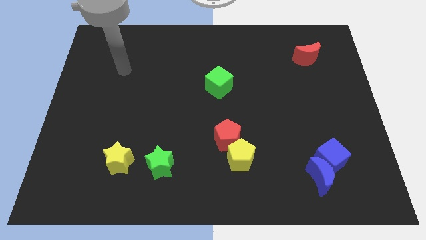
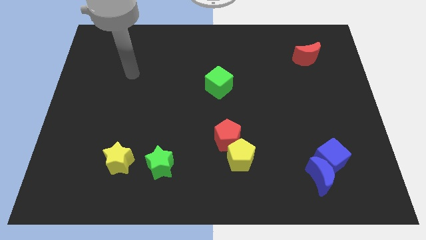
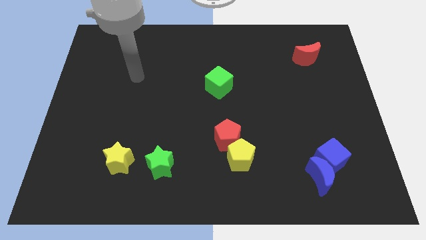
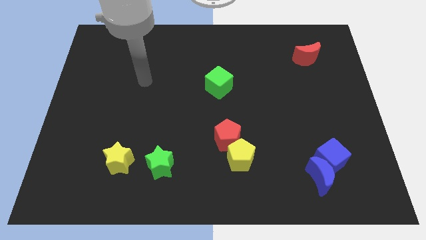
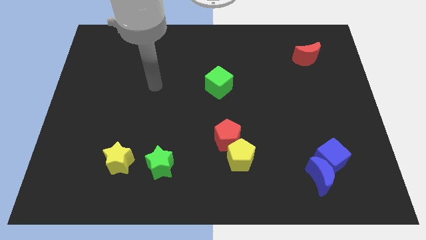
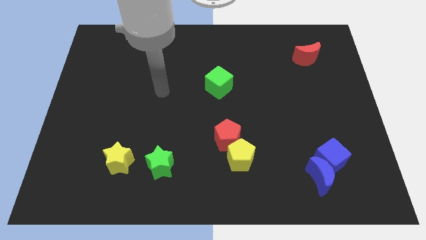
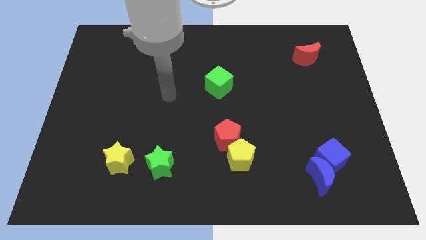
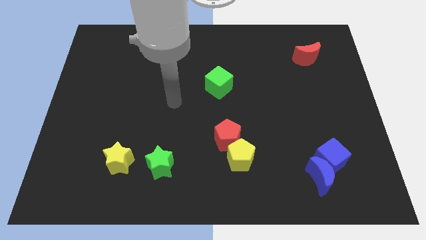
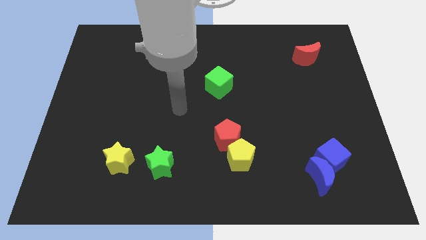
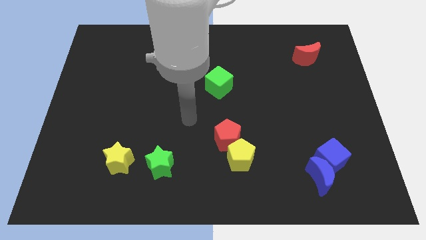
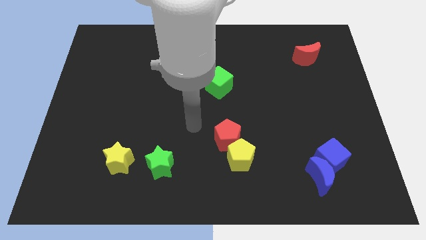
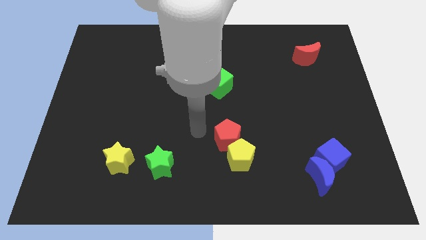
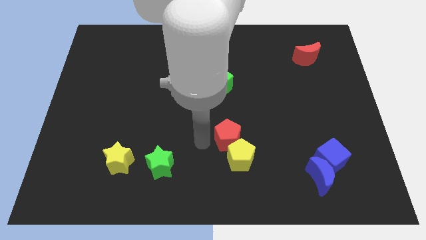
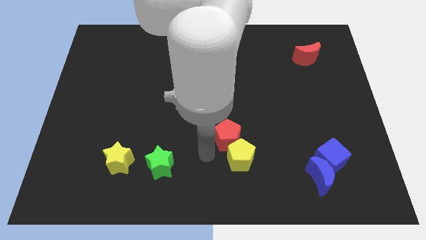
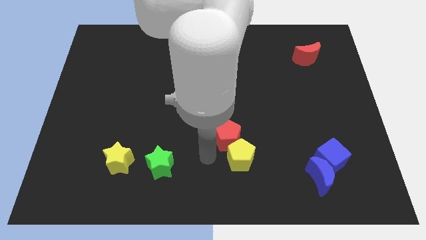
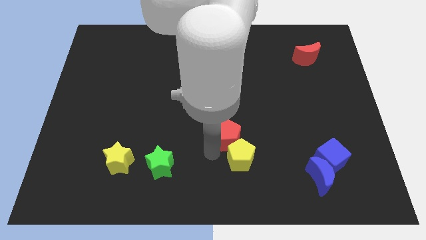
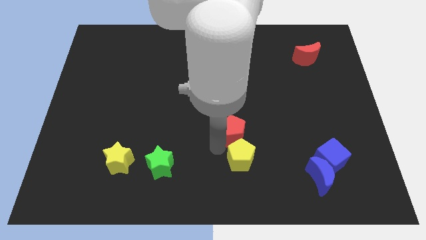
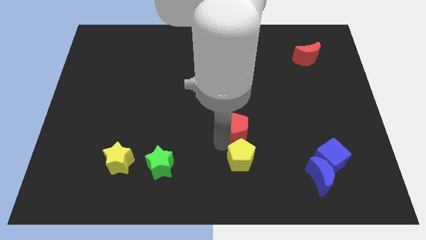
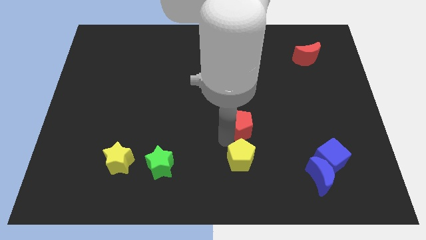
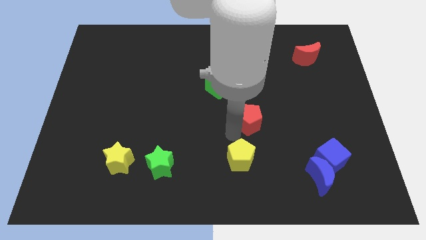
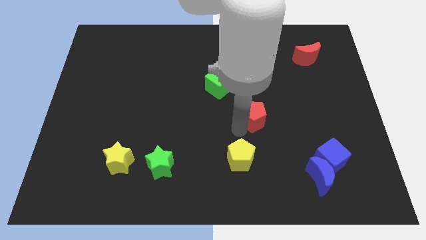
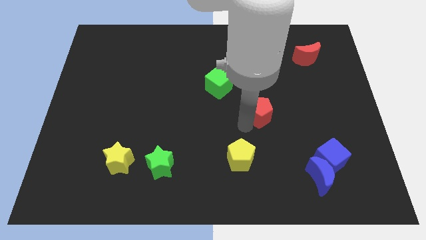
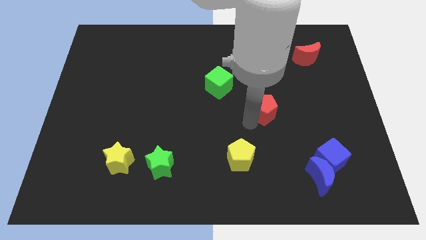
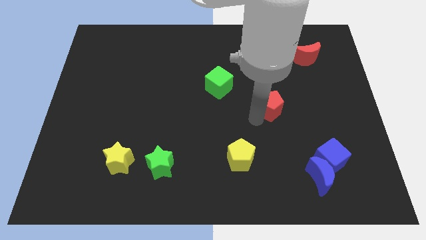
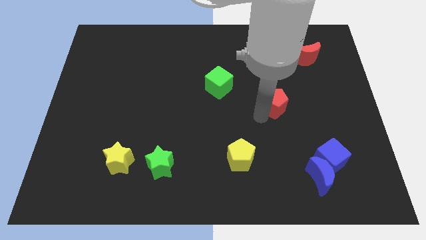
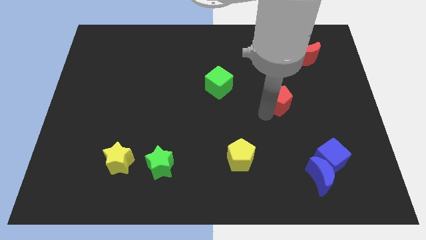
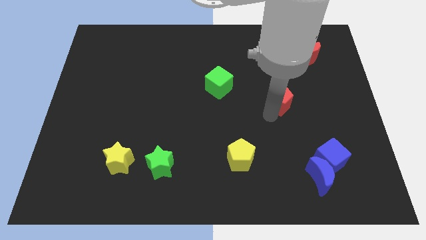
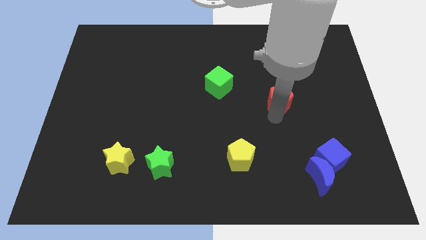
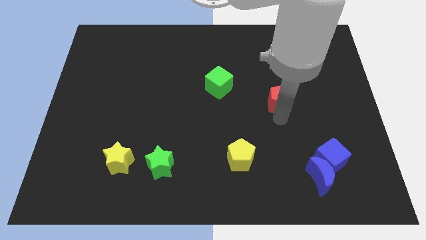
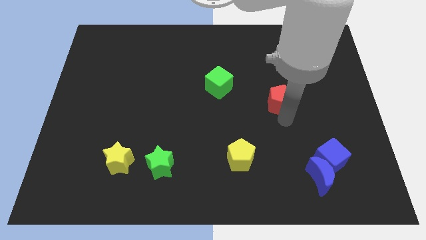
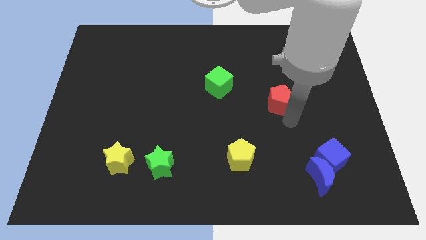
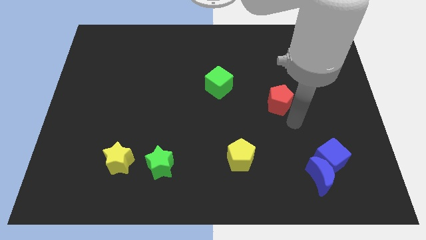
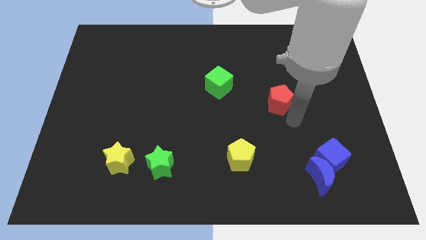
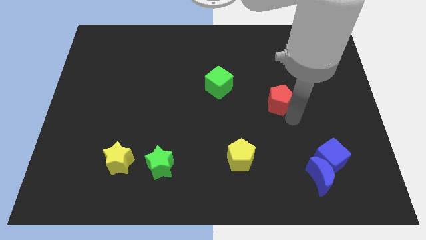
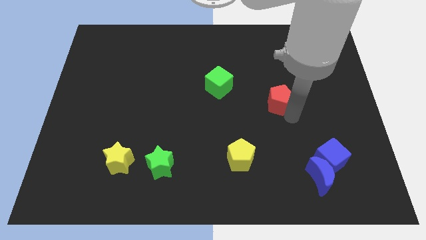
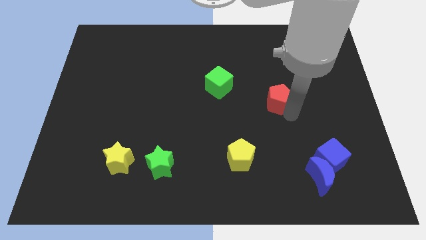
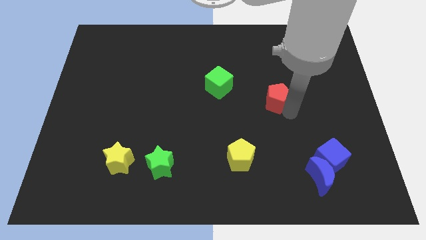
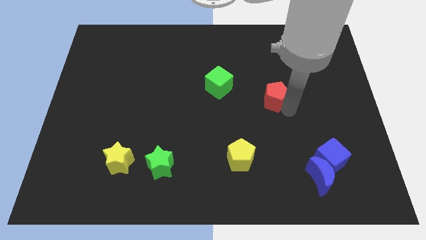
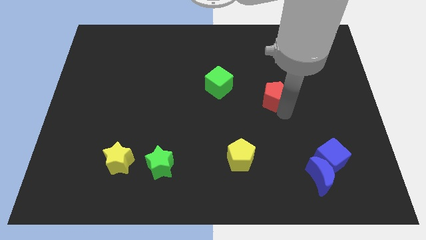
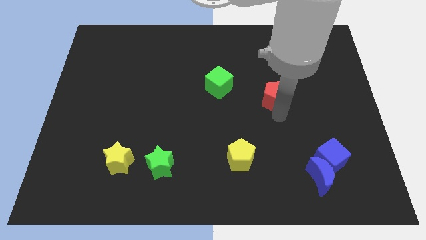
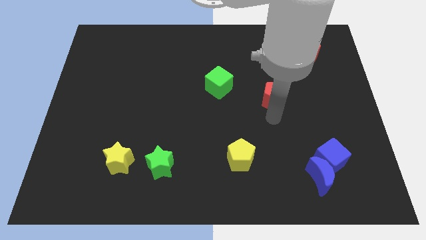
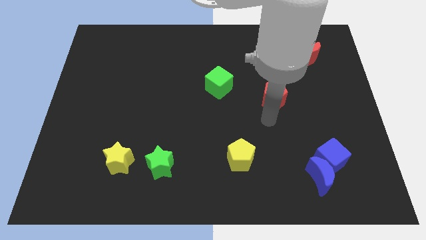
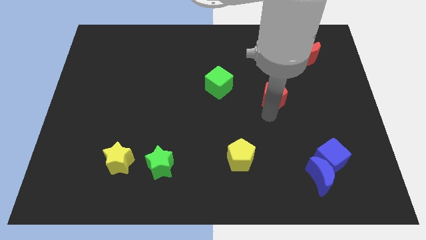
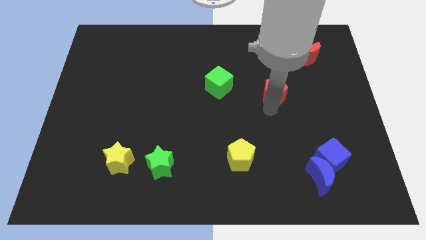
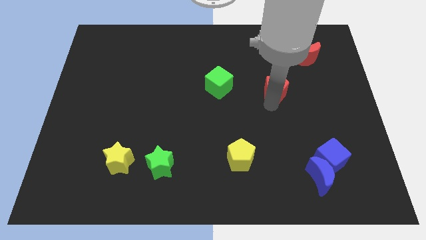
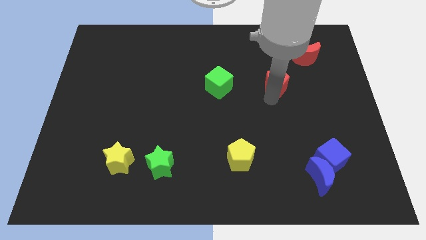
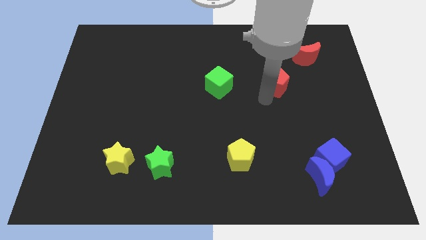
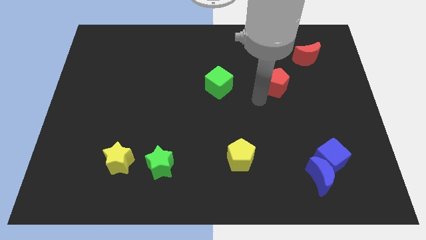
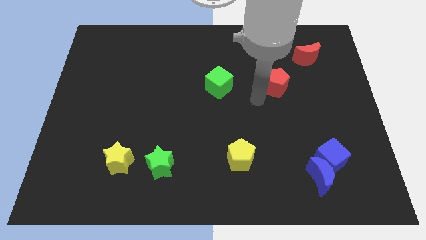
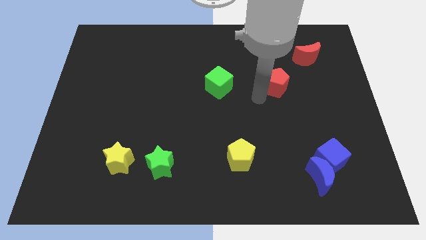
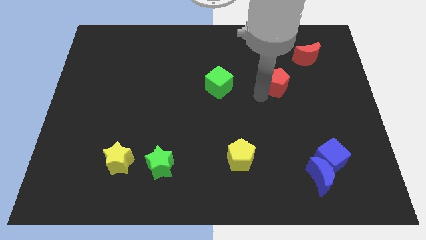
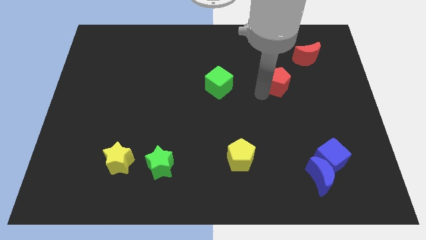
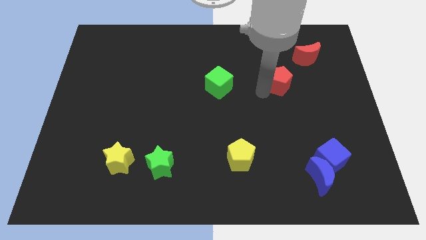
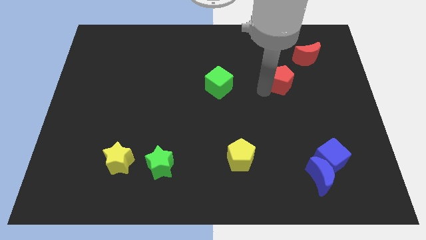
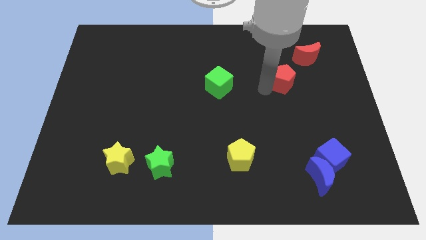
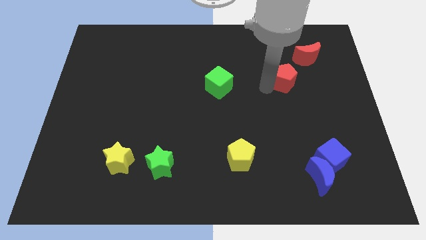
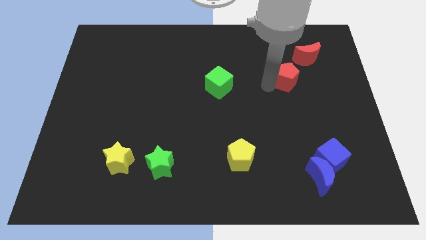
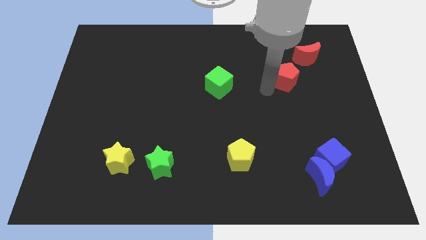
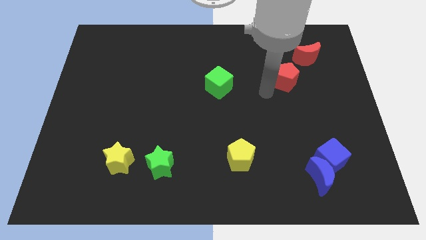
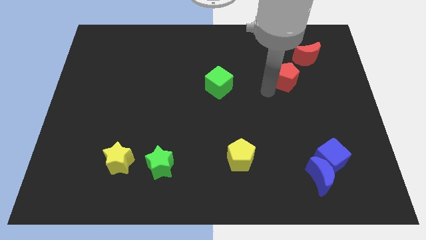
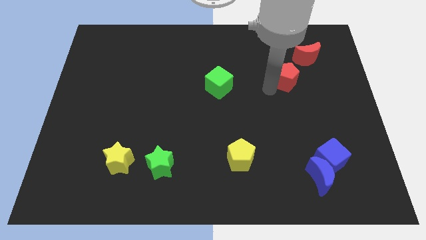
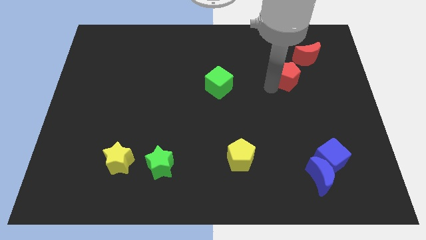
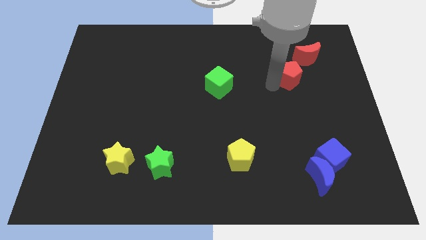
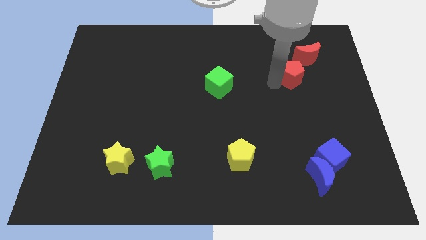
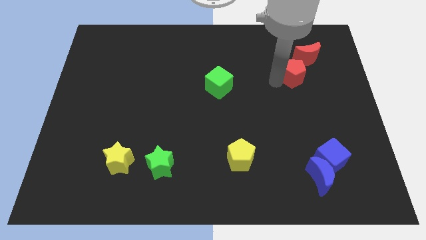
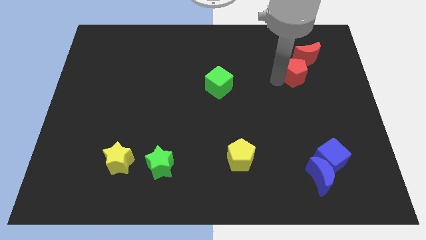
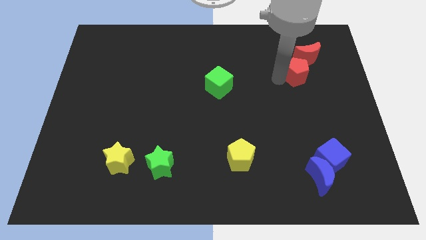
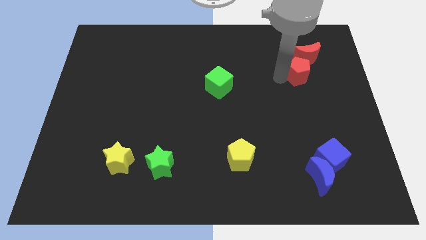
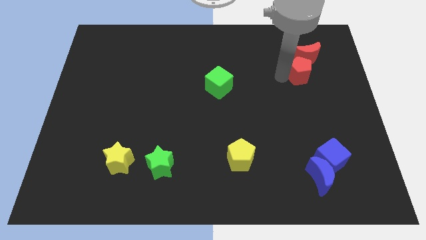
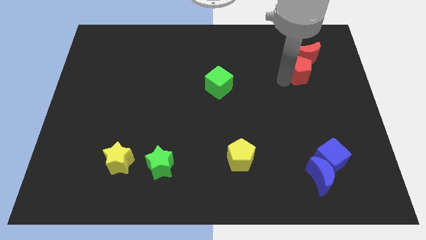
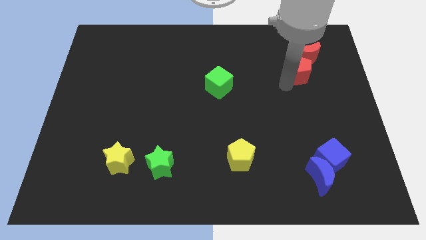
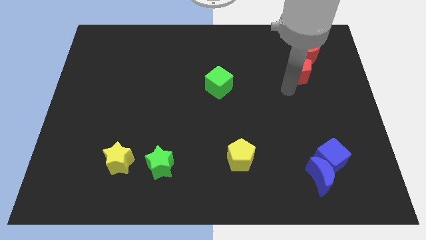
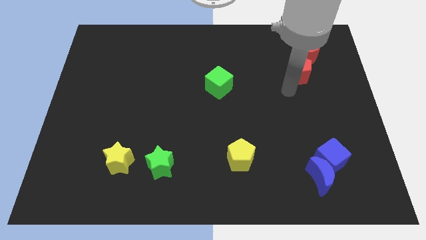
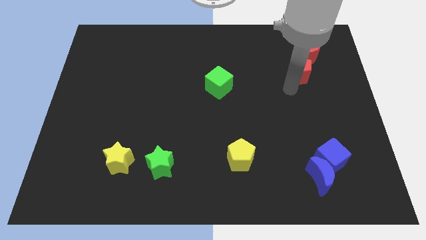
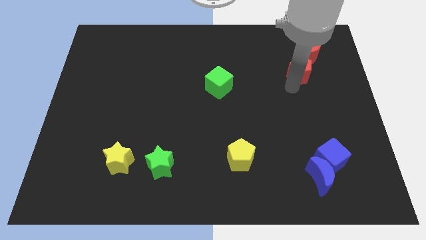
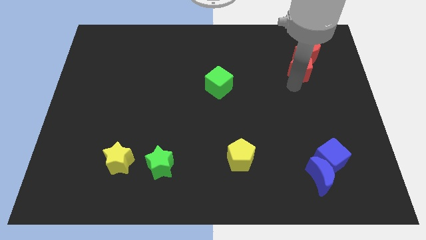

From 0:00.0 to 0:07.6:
put the red pentagon close to the red moon
